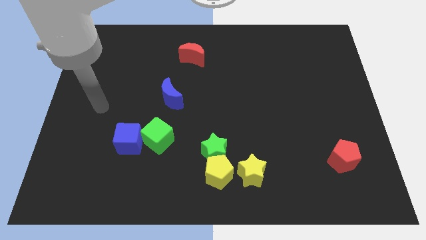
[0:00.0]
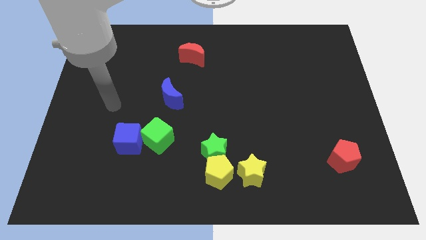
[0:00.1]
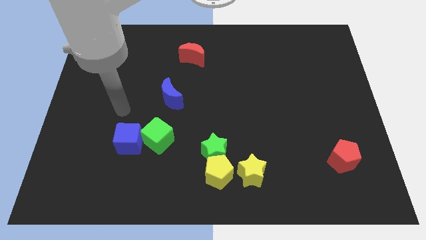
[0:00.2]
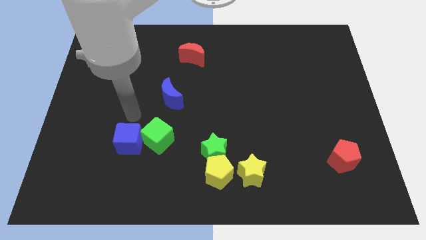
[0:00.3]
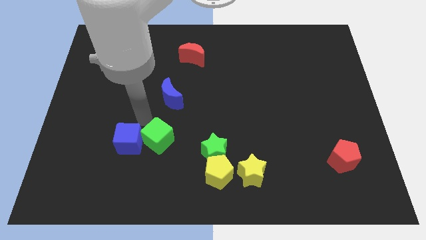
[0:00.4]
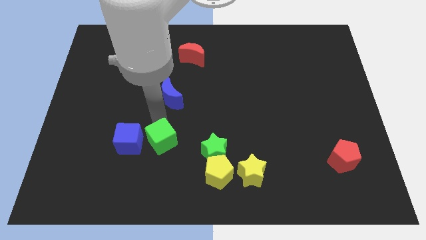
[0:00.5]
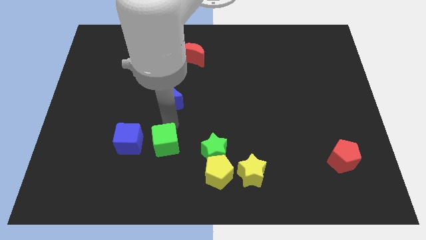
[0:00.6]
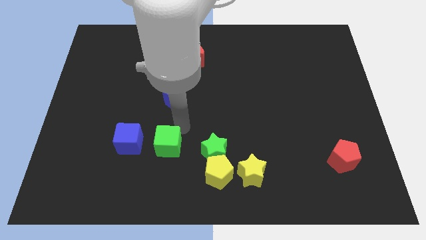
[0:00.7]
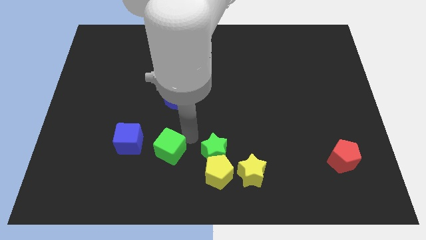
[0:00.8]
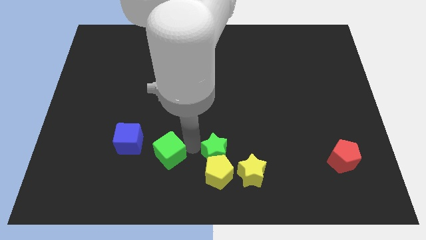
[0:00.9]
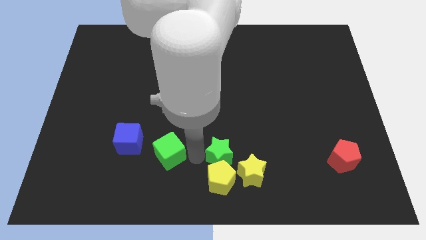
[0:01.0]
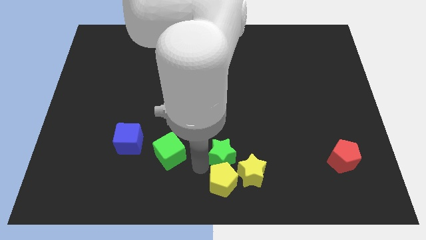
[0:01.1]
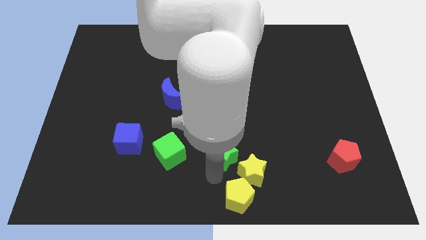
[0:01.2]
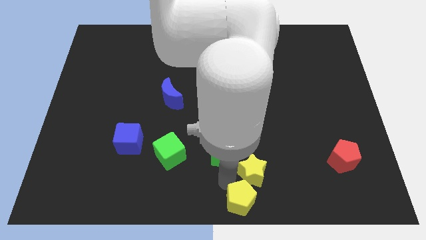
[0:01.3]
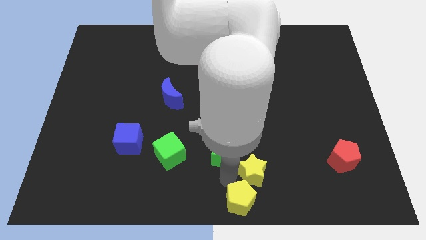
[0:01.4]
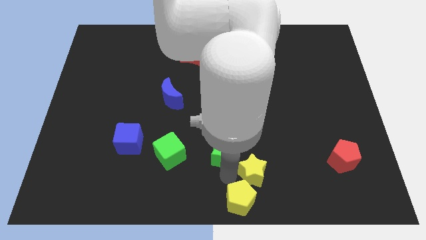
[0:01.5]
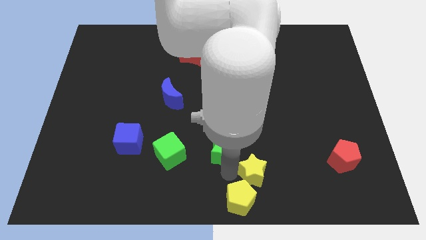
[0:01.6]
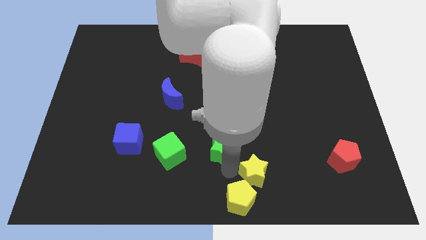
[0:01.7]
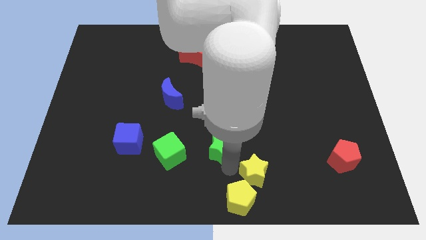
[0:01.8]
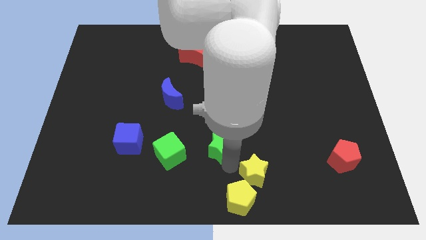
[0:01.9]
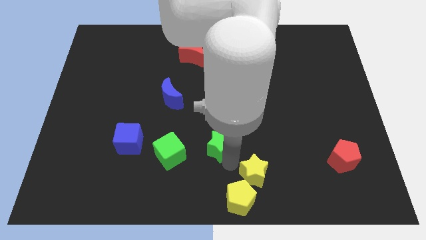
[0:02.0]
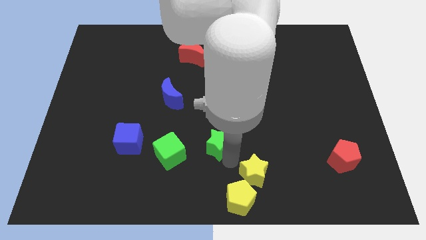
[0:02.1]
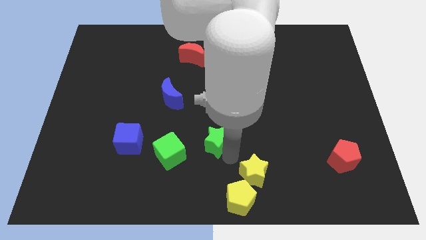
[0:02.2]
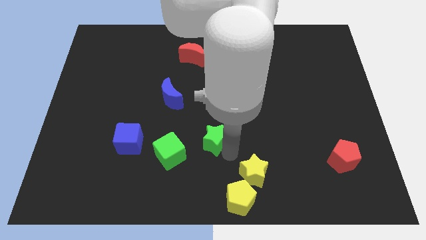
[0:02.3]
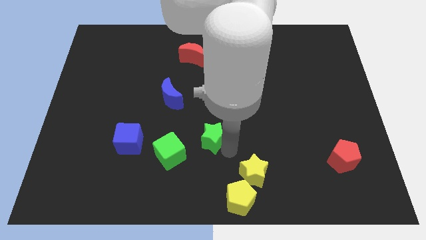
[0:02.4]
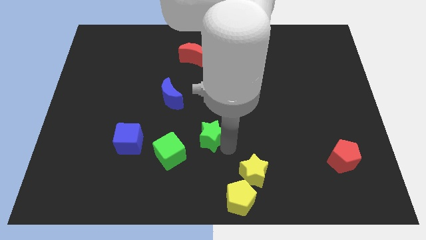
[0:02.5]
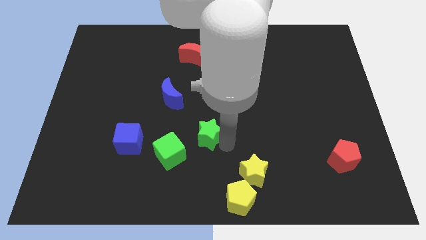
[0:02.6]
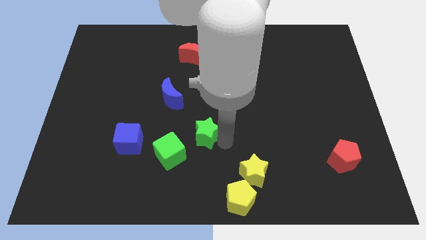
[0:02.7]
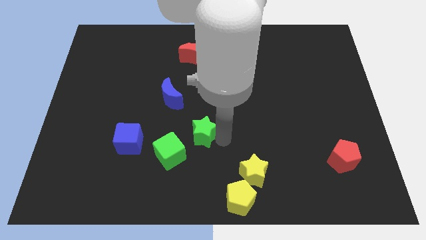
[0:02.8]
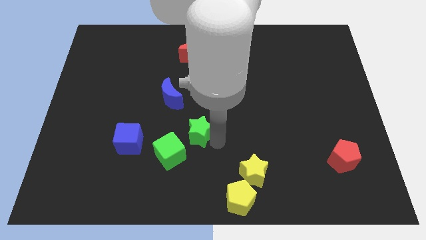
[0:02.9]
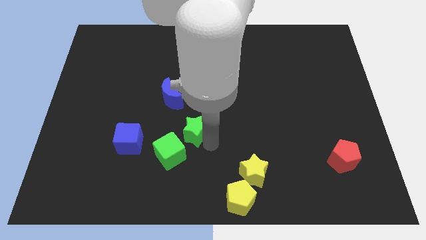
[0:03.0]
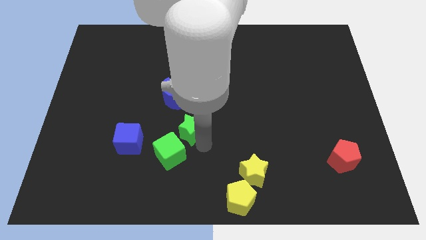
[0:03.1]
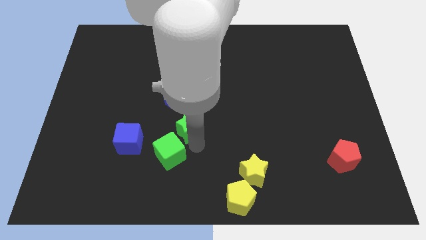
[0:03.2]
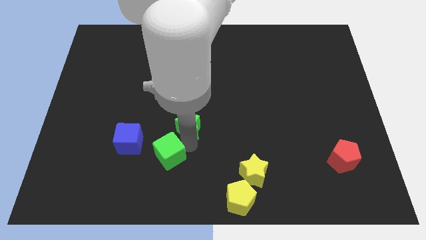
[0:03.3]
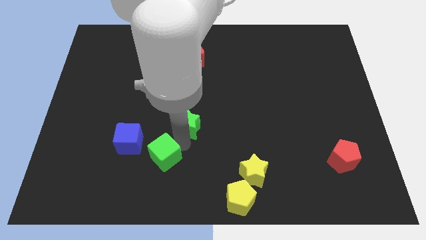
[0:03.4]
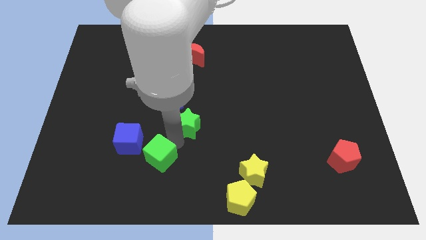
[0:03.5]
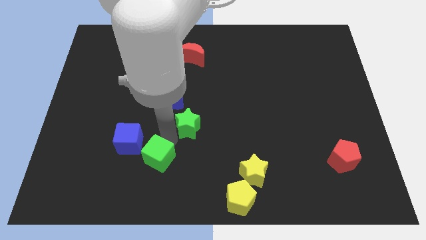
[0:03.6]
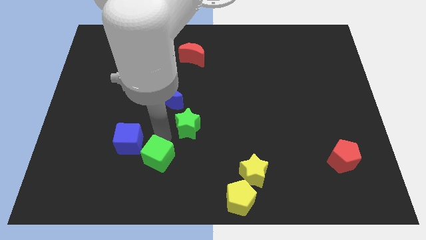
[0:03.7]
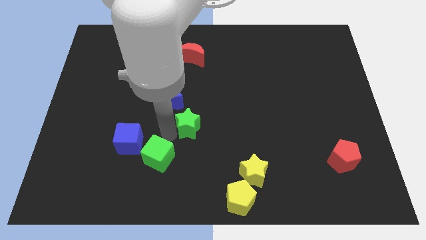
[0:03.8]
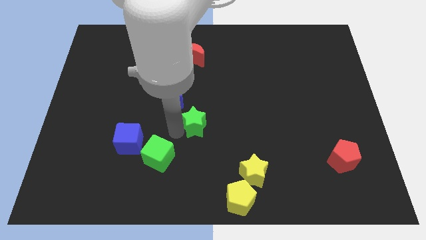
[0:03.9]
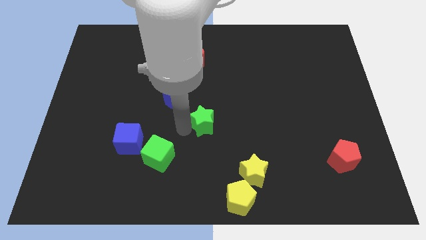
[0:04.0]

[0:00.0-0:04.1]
push the green star upwards a little bit

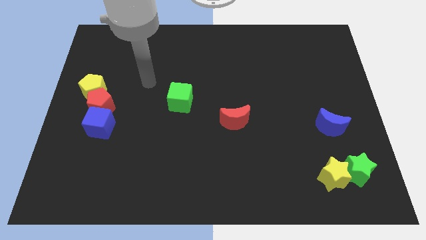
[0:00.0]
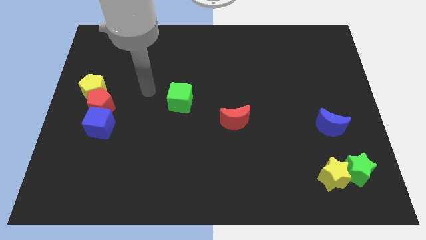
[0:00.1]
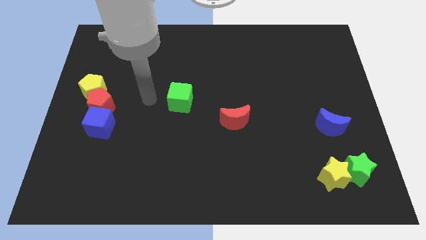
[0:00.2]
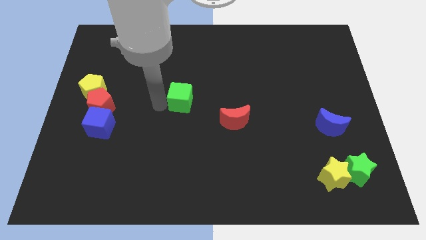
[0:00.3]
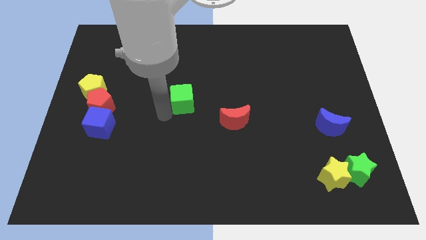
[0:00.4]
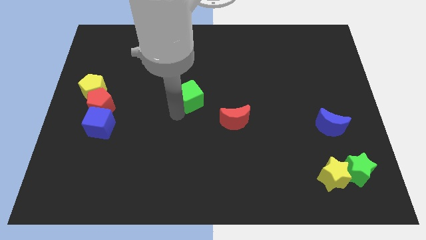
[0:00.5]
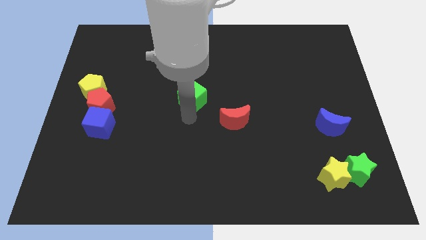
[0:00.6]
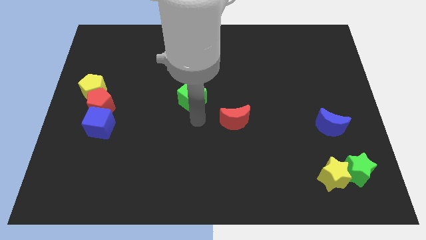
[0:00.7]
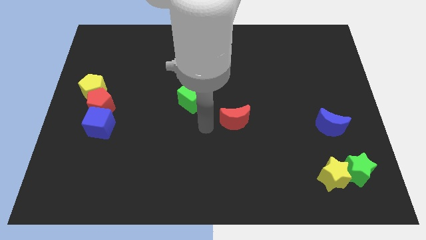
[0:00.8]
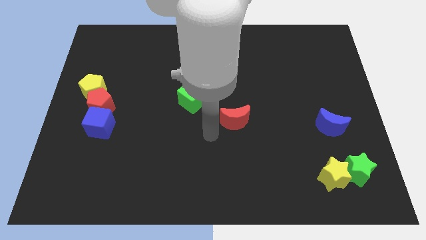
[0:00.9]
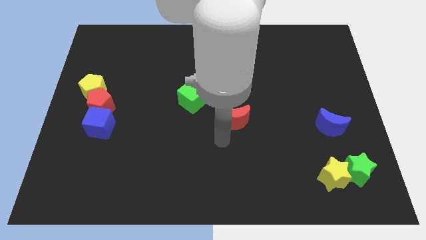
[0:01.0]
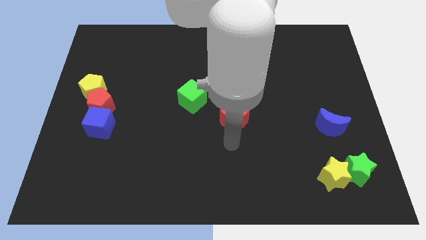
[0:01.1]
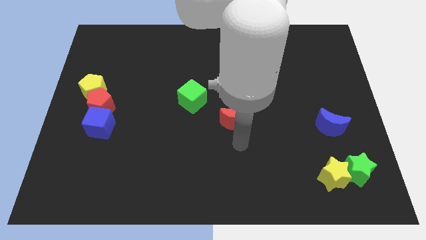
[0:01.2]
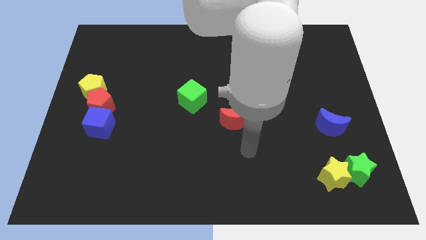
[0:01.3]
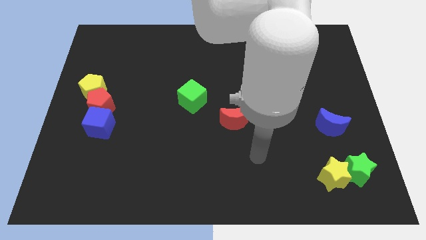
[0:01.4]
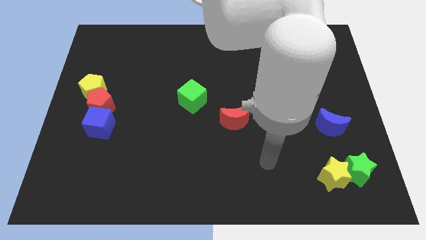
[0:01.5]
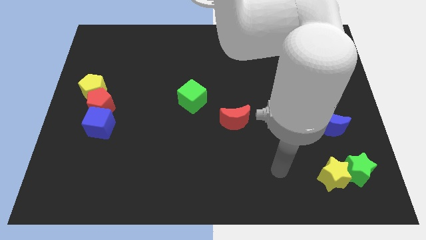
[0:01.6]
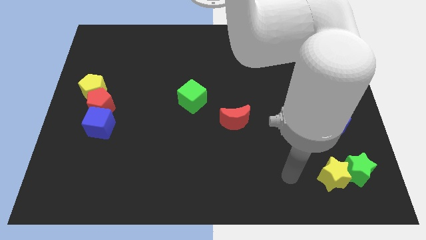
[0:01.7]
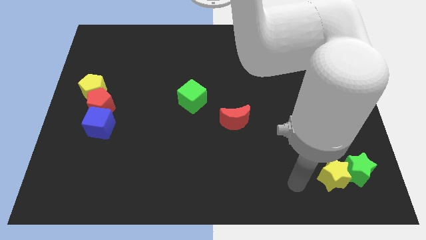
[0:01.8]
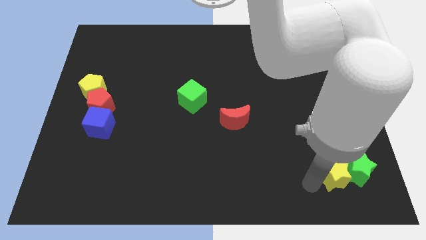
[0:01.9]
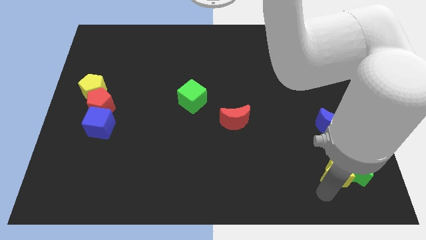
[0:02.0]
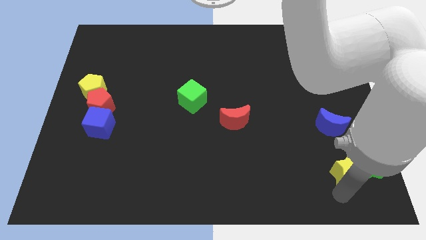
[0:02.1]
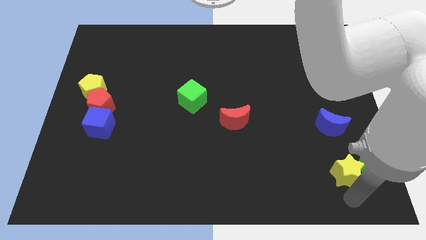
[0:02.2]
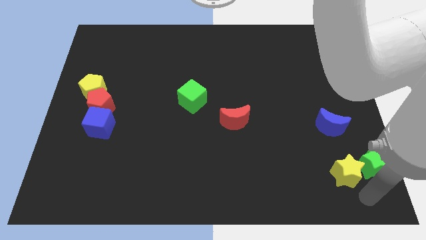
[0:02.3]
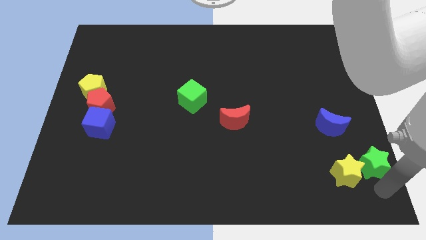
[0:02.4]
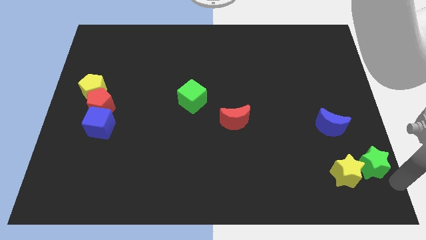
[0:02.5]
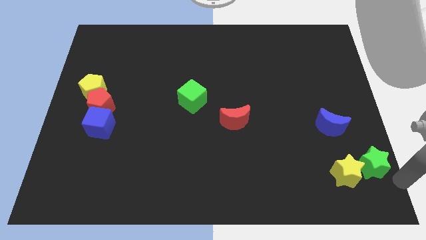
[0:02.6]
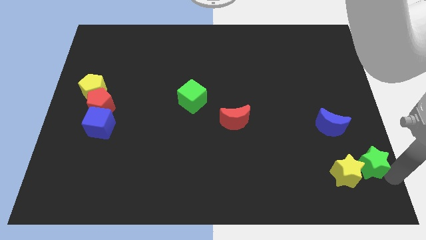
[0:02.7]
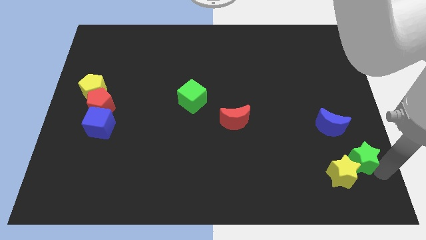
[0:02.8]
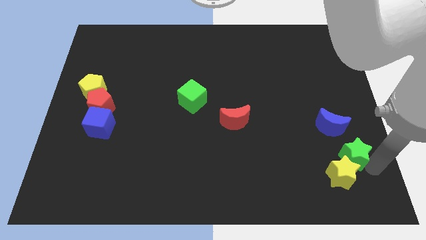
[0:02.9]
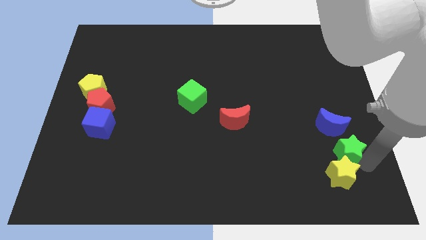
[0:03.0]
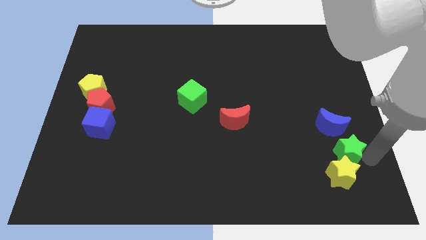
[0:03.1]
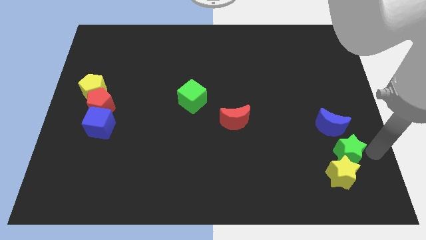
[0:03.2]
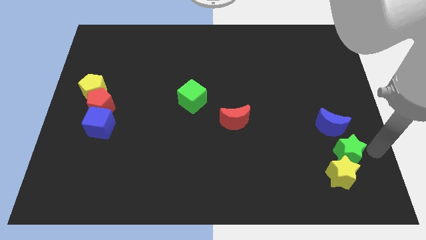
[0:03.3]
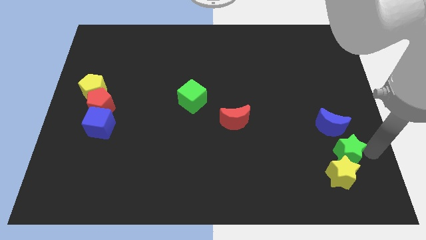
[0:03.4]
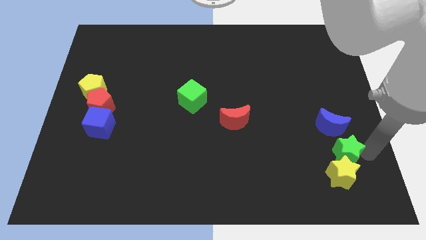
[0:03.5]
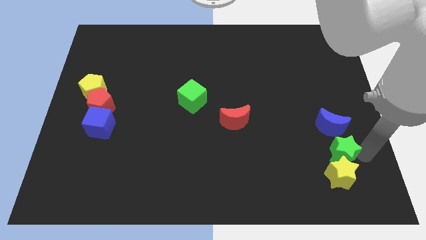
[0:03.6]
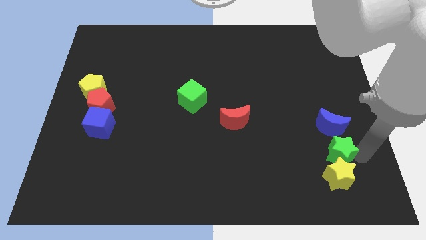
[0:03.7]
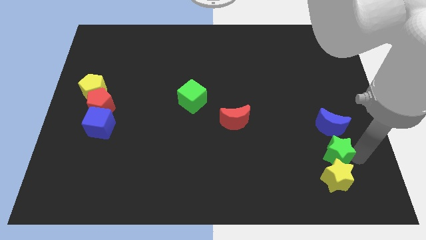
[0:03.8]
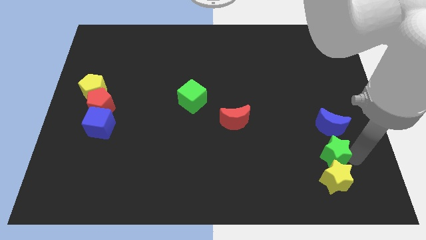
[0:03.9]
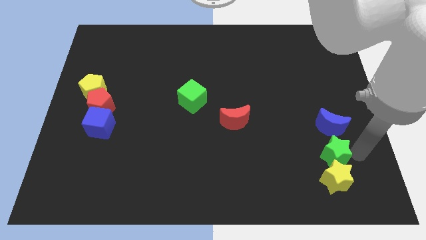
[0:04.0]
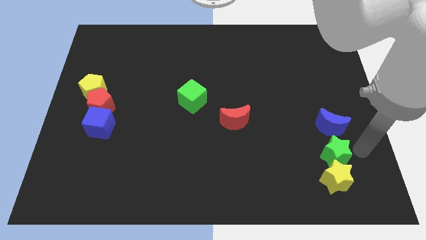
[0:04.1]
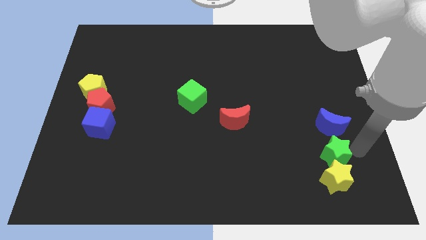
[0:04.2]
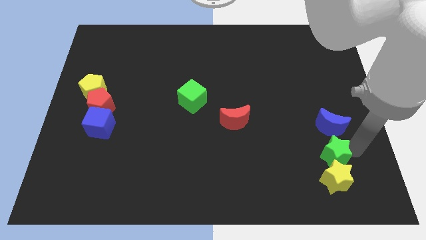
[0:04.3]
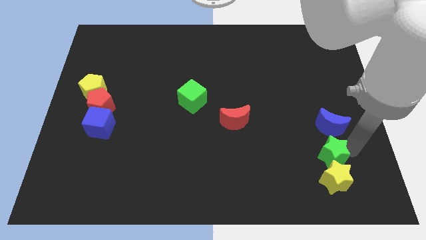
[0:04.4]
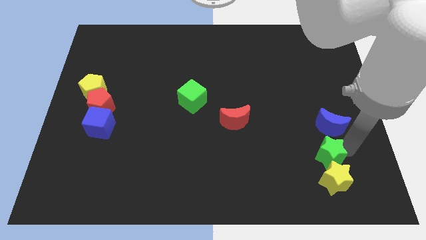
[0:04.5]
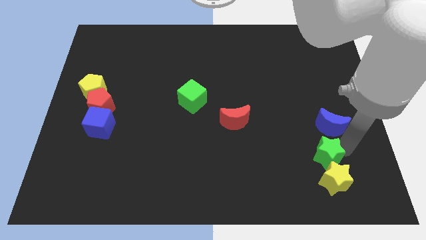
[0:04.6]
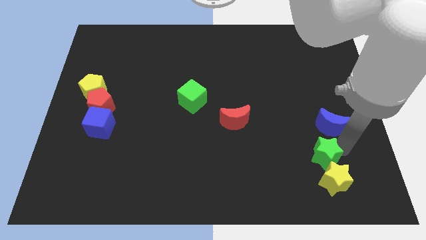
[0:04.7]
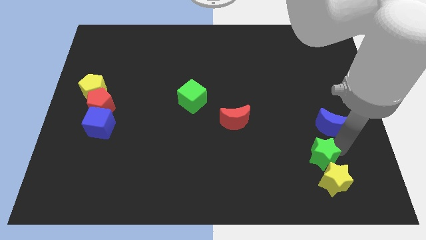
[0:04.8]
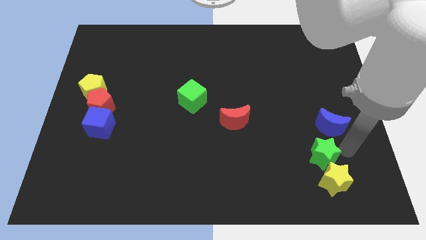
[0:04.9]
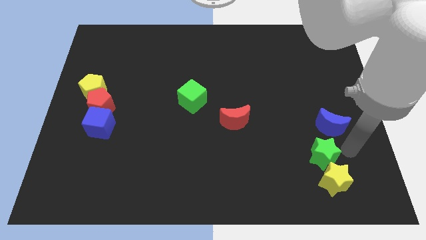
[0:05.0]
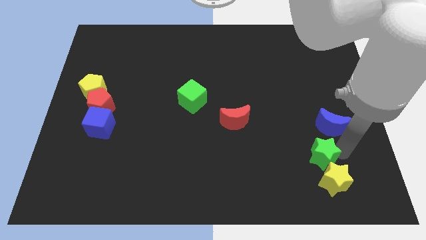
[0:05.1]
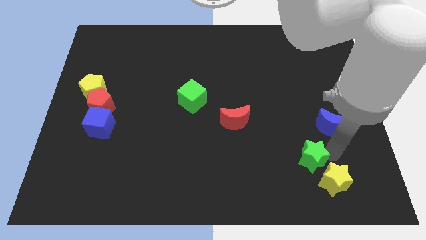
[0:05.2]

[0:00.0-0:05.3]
move the green star a bit left
